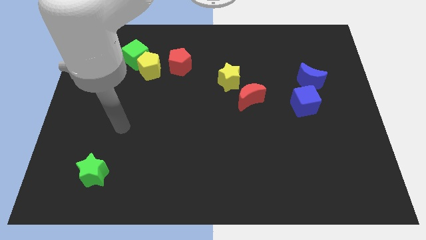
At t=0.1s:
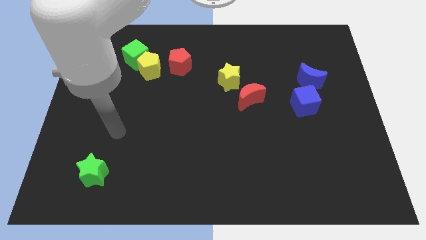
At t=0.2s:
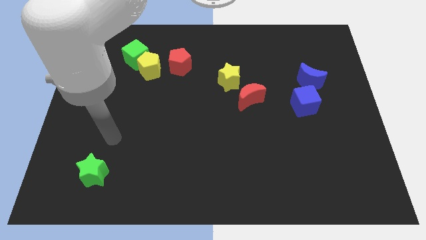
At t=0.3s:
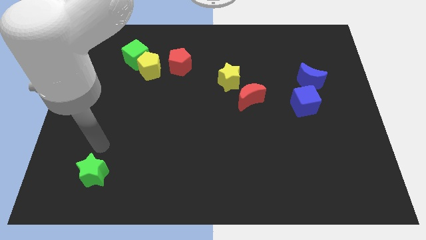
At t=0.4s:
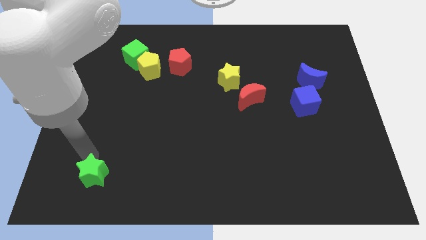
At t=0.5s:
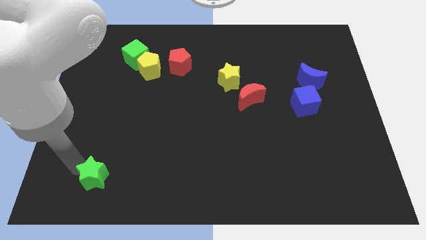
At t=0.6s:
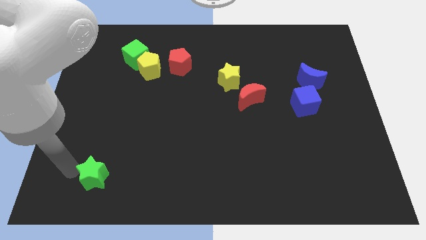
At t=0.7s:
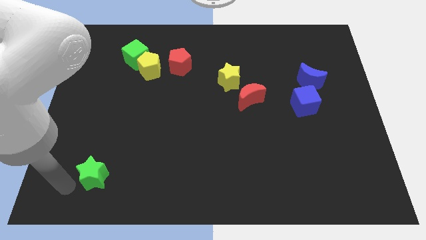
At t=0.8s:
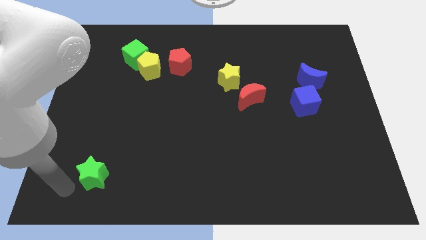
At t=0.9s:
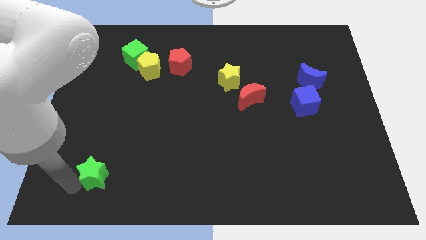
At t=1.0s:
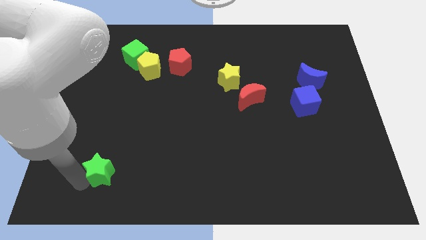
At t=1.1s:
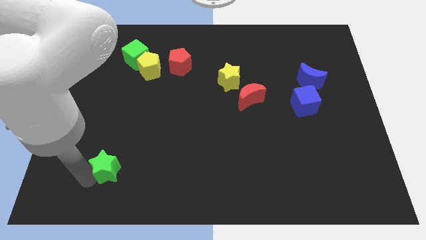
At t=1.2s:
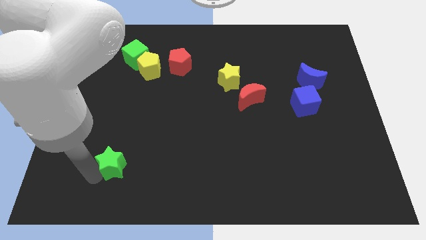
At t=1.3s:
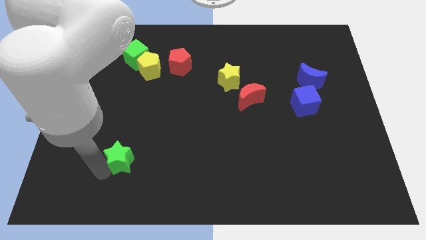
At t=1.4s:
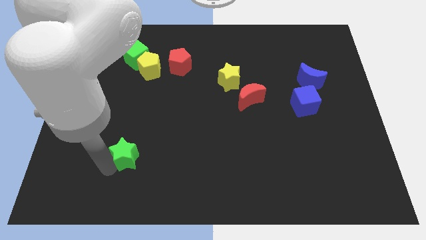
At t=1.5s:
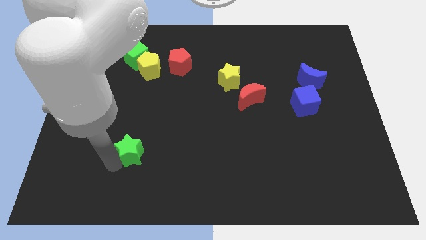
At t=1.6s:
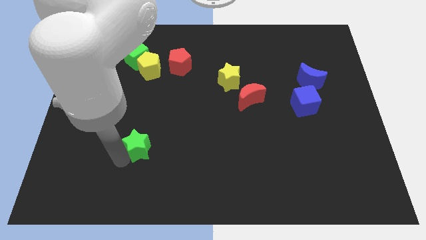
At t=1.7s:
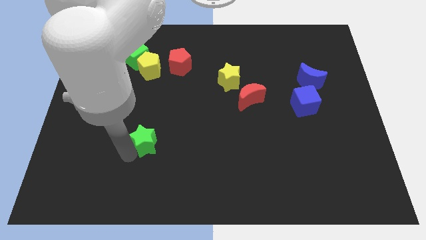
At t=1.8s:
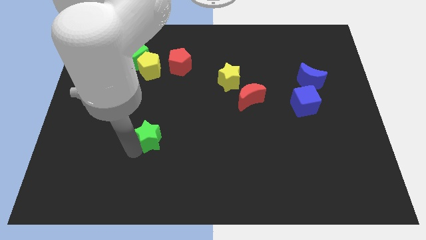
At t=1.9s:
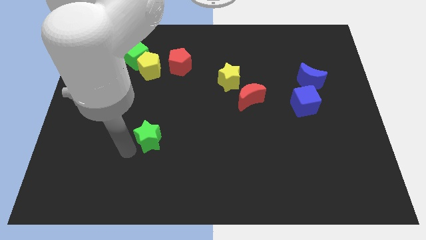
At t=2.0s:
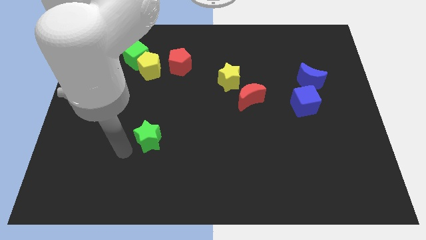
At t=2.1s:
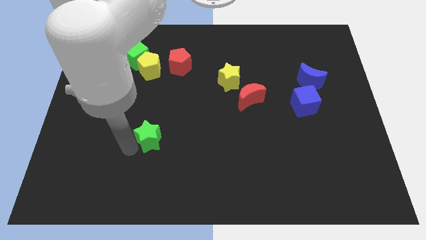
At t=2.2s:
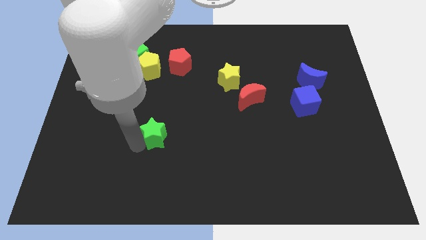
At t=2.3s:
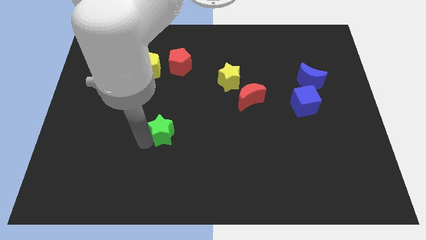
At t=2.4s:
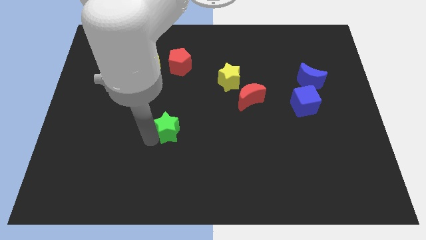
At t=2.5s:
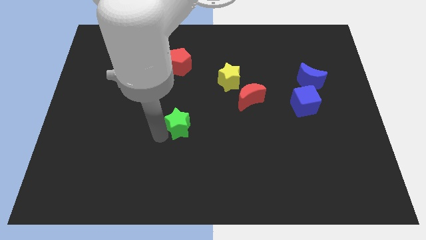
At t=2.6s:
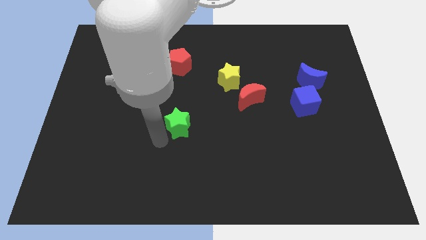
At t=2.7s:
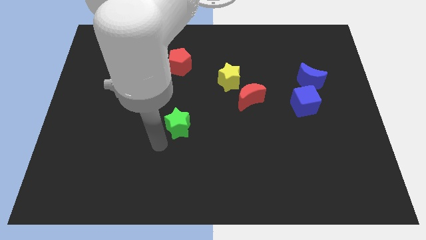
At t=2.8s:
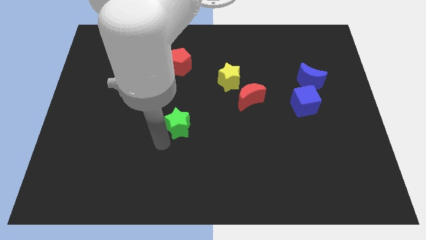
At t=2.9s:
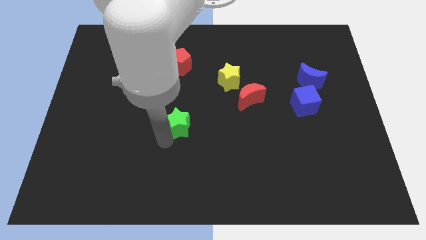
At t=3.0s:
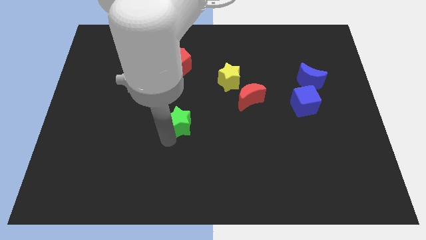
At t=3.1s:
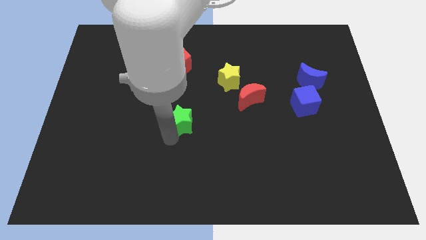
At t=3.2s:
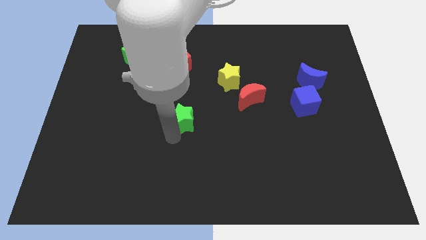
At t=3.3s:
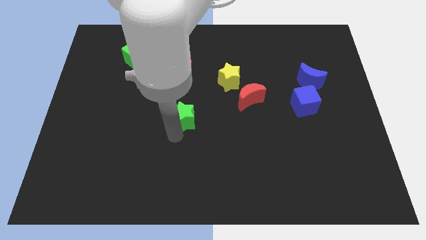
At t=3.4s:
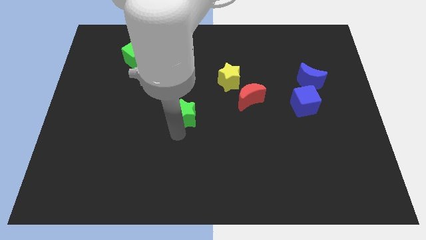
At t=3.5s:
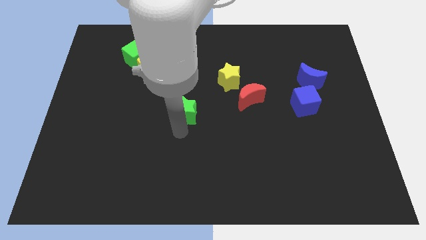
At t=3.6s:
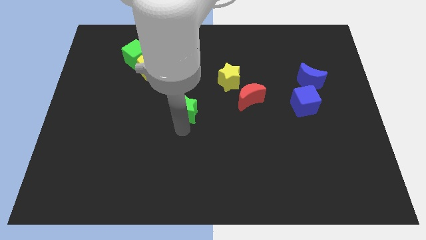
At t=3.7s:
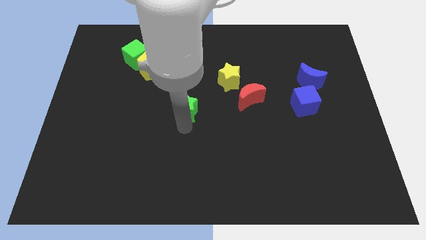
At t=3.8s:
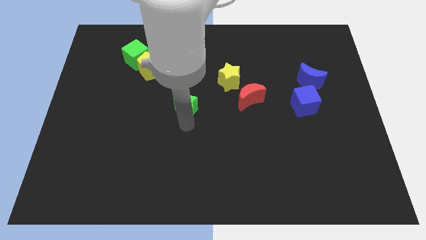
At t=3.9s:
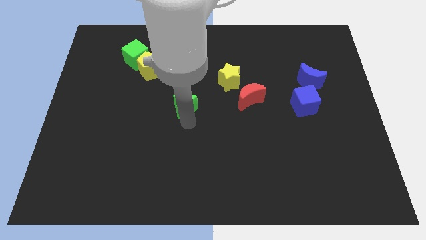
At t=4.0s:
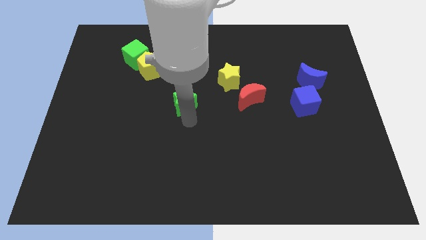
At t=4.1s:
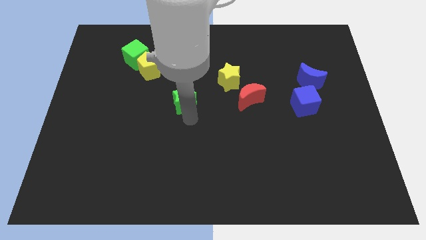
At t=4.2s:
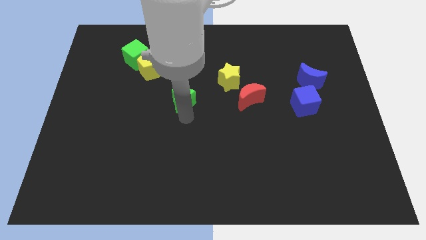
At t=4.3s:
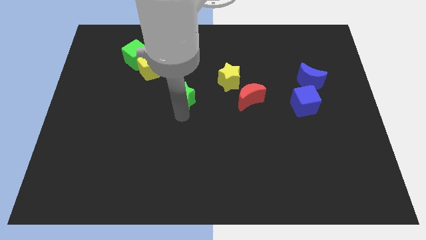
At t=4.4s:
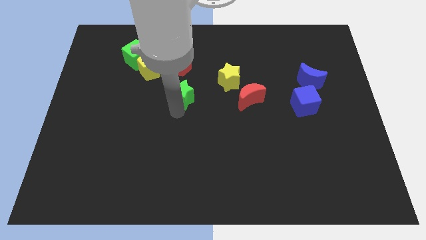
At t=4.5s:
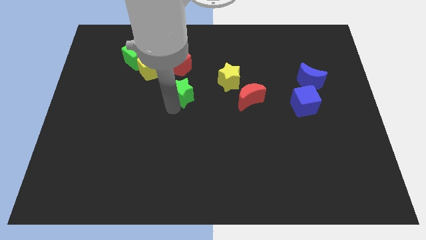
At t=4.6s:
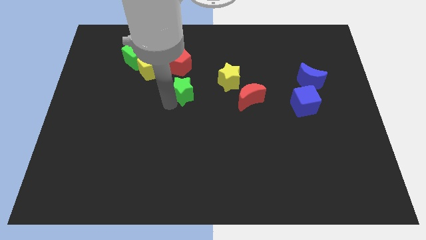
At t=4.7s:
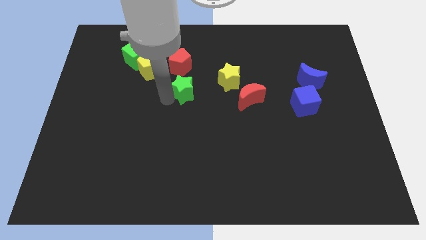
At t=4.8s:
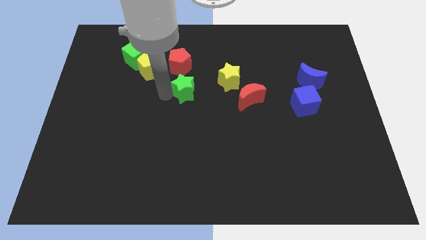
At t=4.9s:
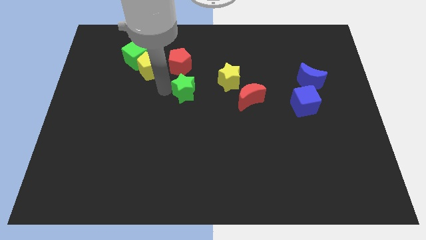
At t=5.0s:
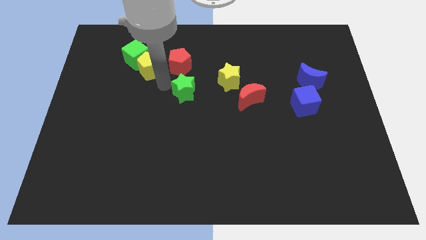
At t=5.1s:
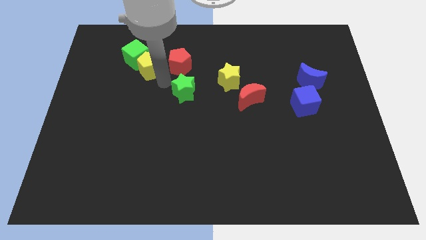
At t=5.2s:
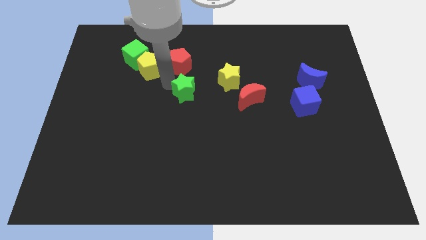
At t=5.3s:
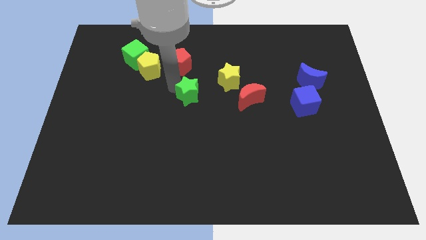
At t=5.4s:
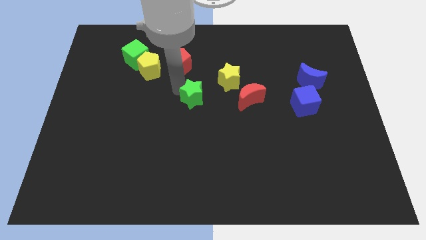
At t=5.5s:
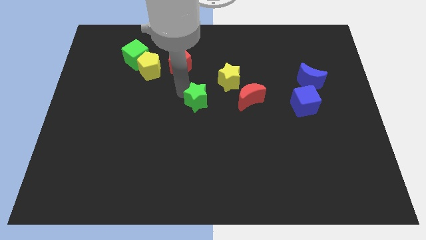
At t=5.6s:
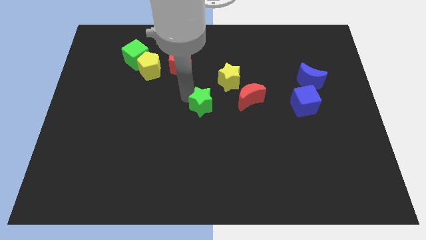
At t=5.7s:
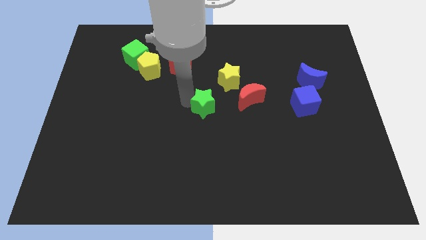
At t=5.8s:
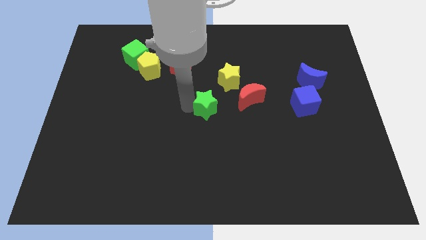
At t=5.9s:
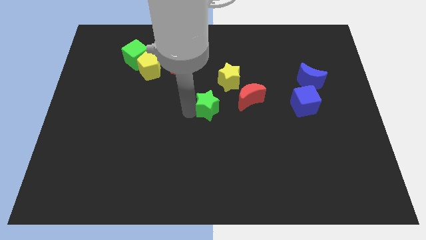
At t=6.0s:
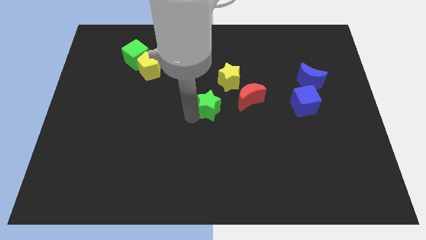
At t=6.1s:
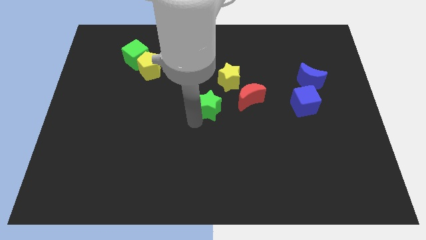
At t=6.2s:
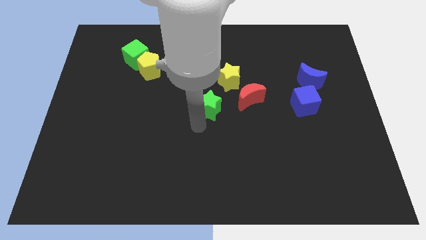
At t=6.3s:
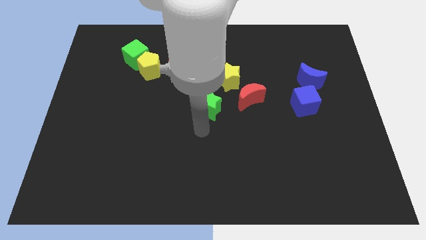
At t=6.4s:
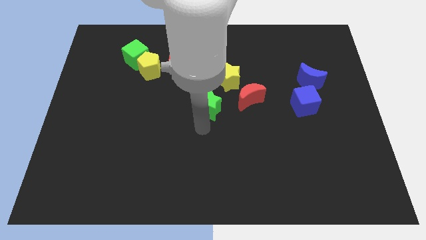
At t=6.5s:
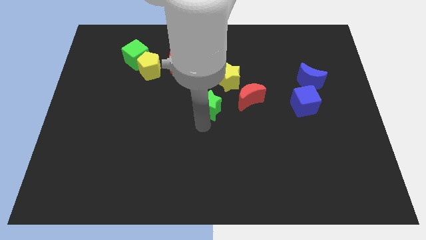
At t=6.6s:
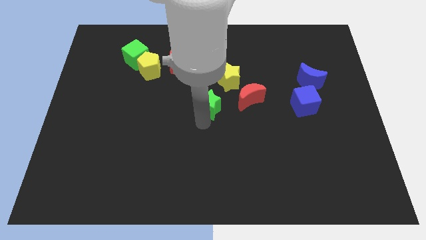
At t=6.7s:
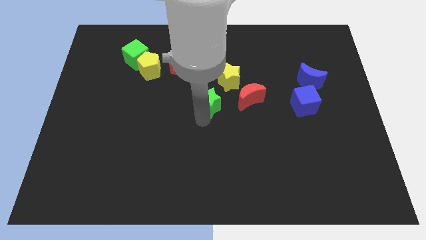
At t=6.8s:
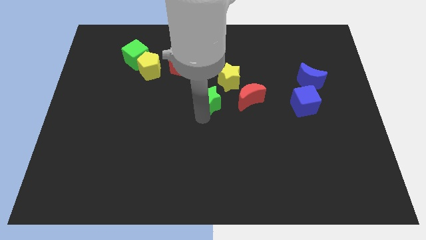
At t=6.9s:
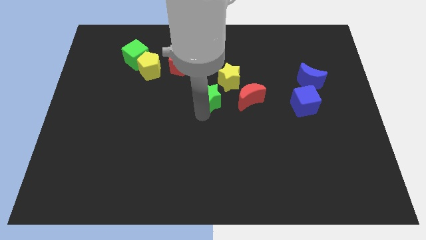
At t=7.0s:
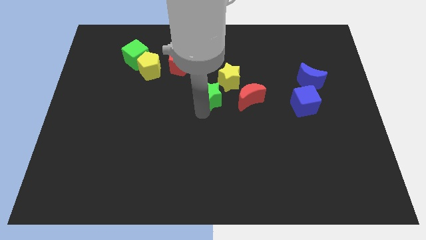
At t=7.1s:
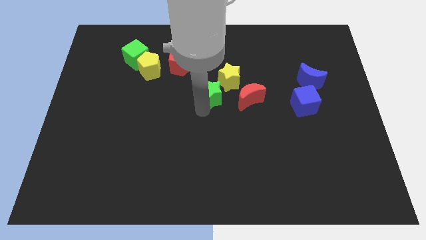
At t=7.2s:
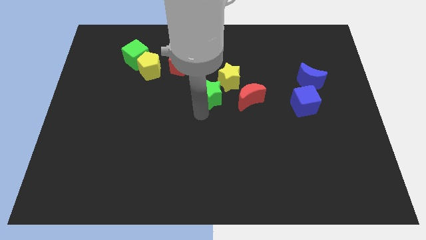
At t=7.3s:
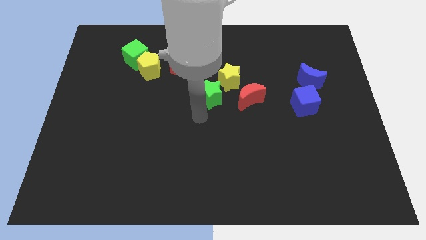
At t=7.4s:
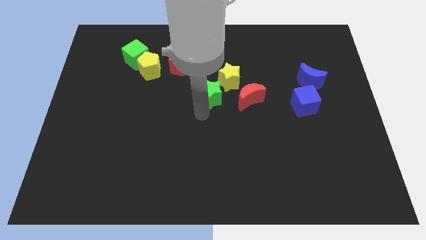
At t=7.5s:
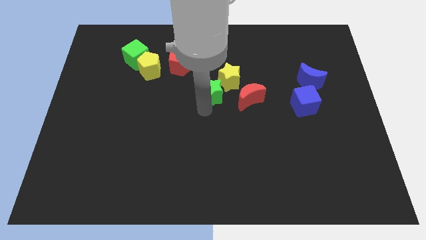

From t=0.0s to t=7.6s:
push the green star towards the yellow star
